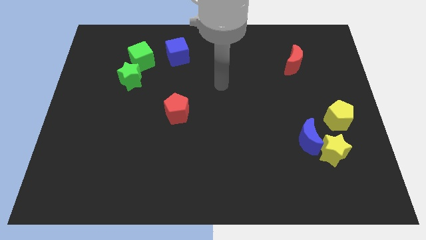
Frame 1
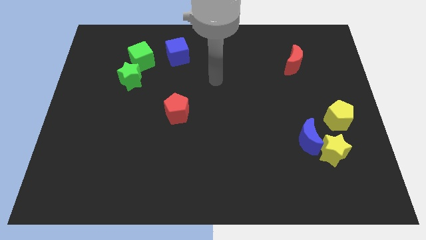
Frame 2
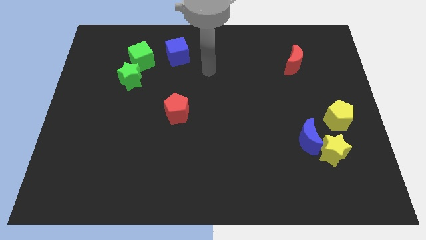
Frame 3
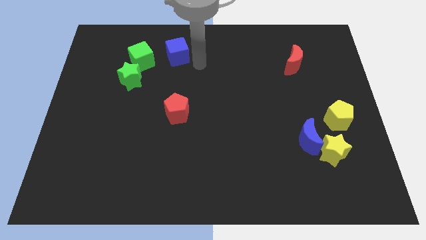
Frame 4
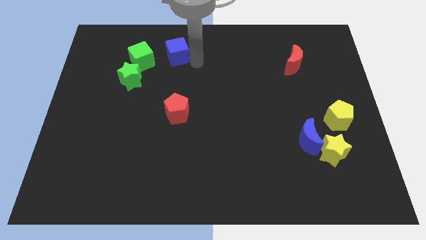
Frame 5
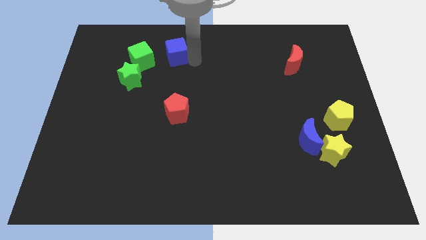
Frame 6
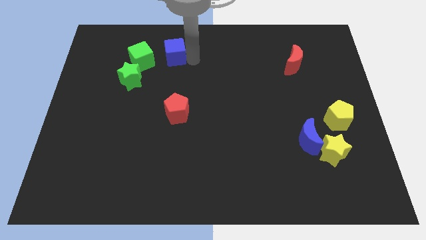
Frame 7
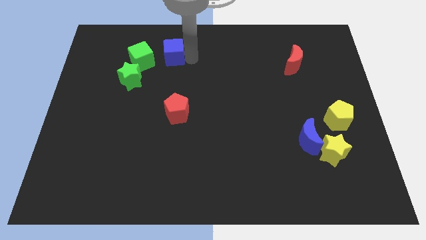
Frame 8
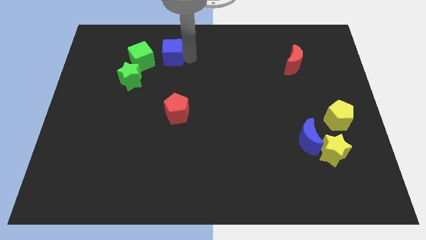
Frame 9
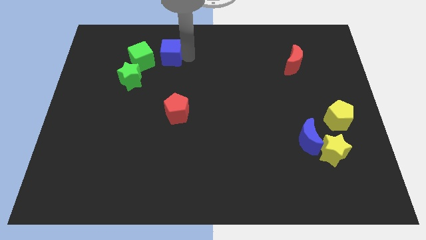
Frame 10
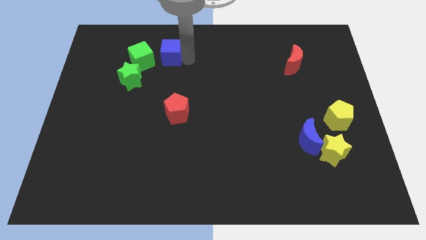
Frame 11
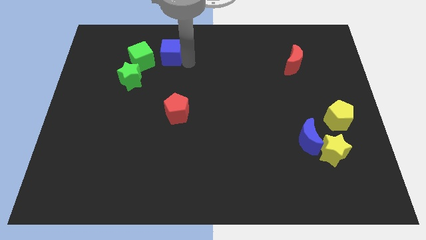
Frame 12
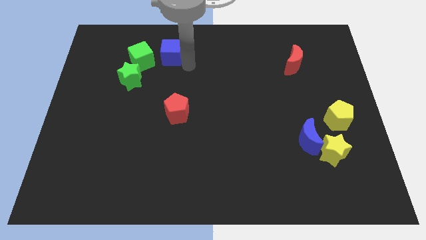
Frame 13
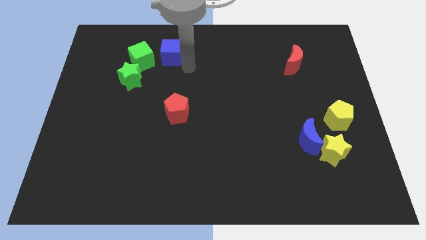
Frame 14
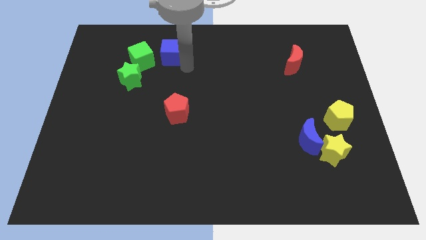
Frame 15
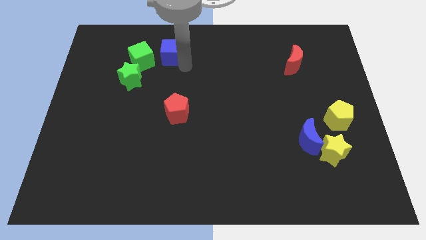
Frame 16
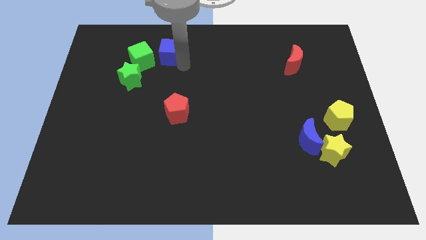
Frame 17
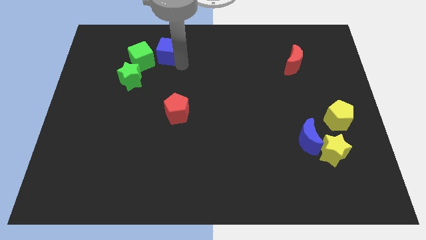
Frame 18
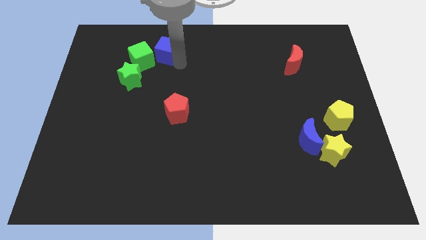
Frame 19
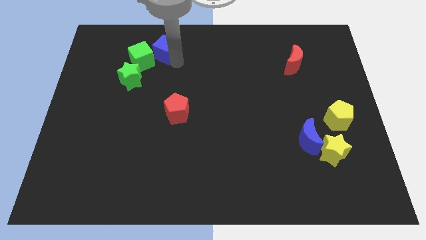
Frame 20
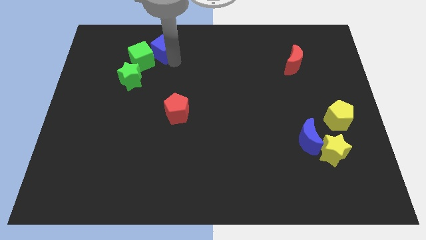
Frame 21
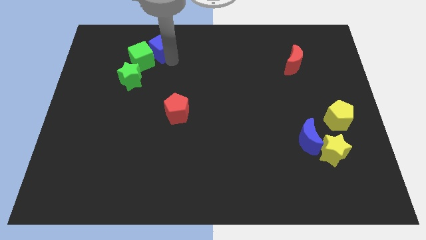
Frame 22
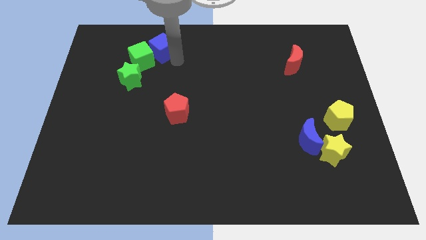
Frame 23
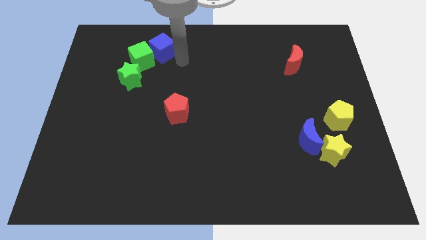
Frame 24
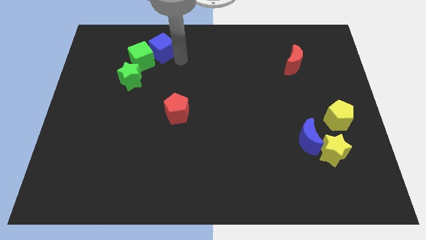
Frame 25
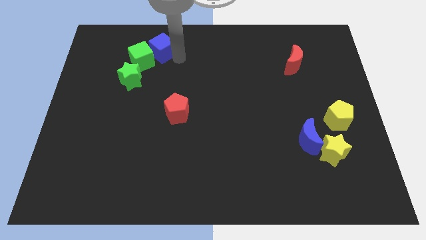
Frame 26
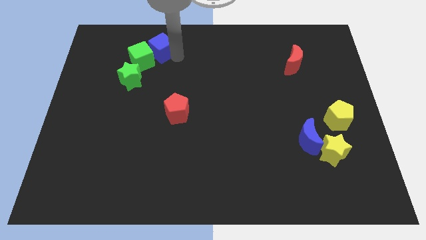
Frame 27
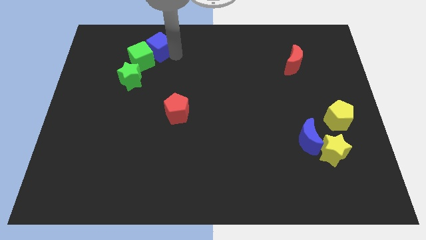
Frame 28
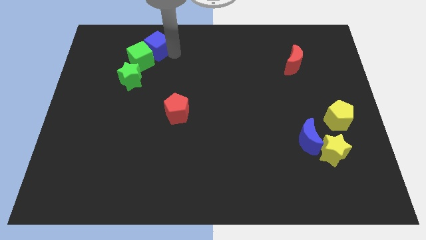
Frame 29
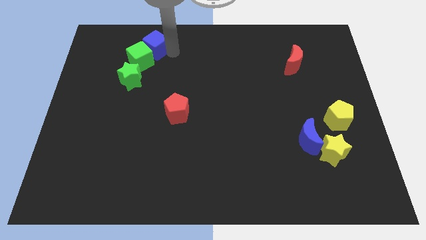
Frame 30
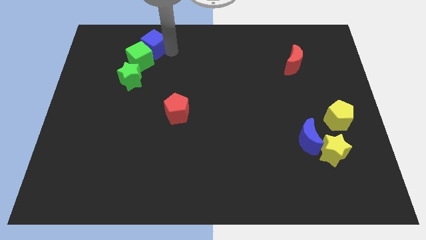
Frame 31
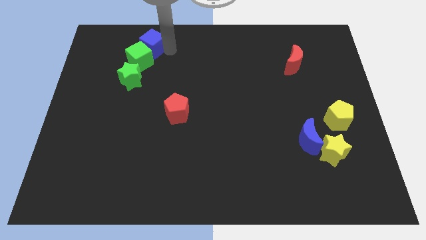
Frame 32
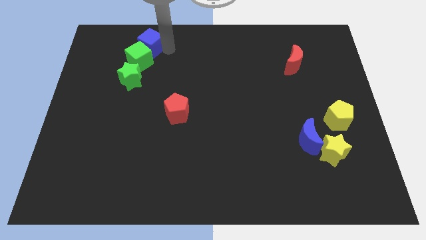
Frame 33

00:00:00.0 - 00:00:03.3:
move the blue cube a little left

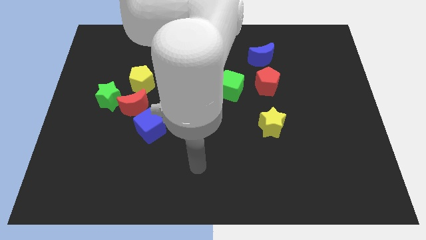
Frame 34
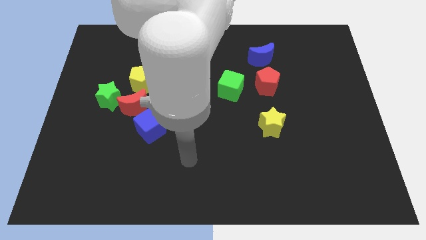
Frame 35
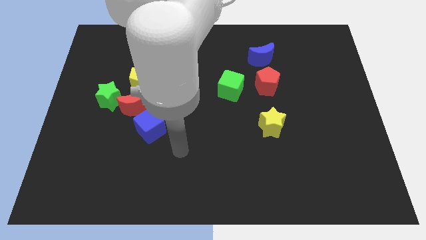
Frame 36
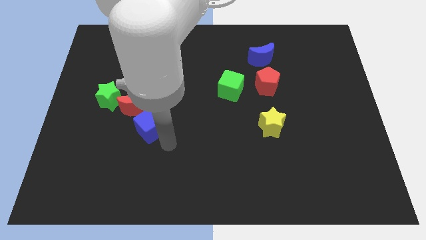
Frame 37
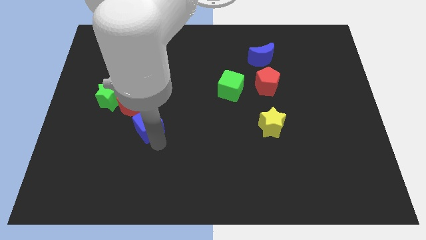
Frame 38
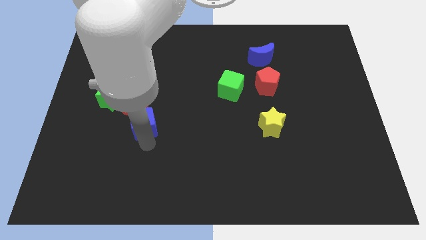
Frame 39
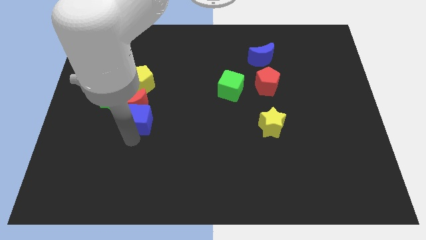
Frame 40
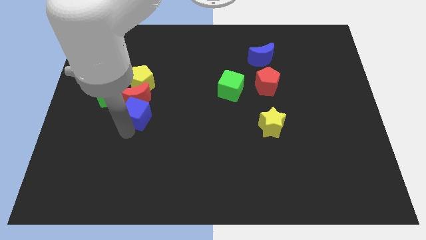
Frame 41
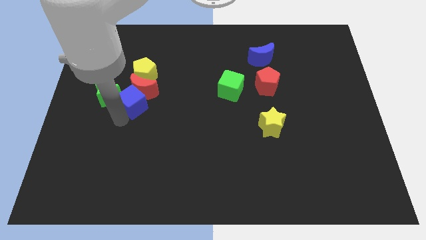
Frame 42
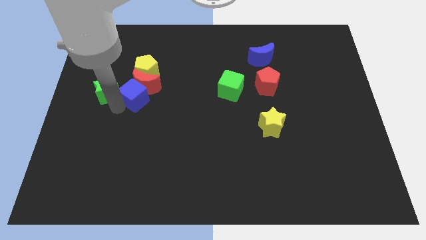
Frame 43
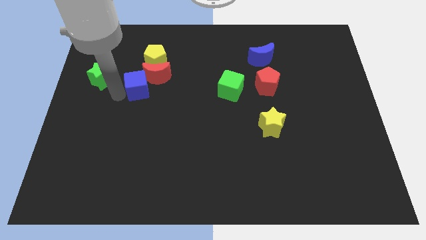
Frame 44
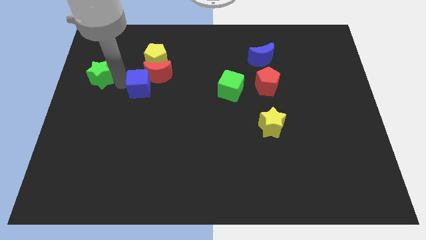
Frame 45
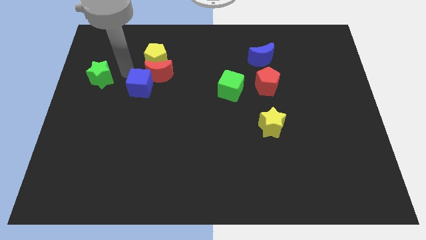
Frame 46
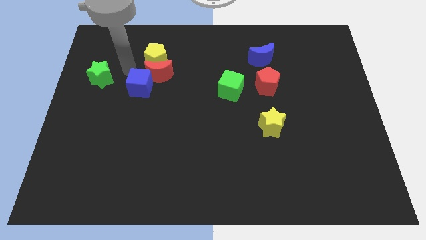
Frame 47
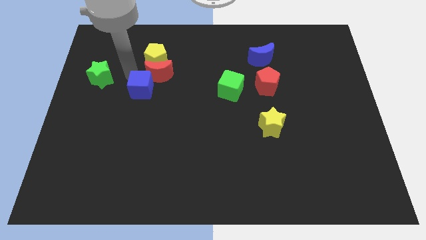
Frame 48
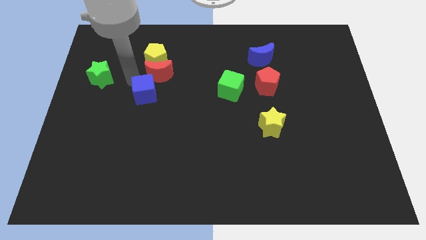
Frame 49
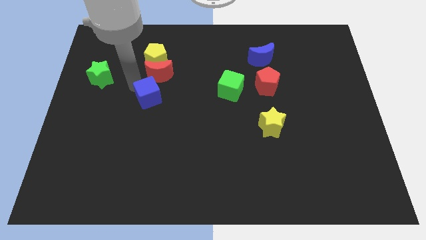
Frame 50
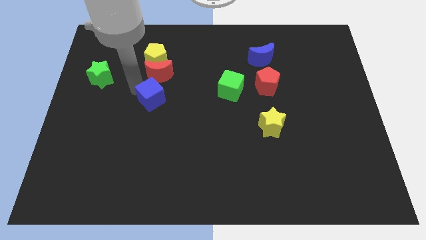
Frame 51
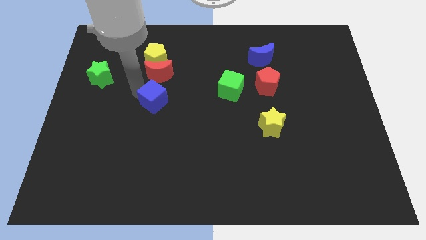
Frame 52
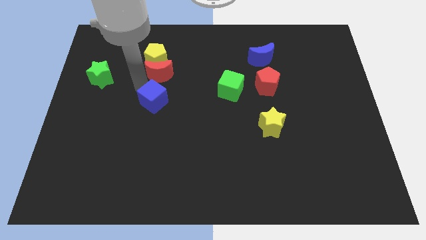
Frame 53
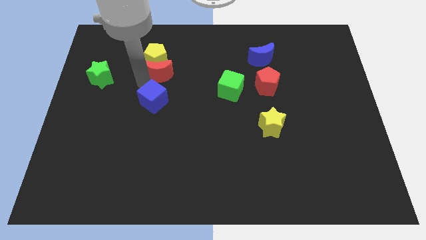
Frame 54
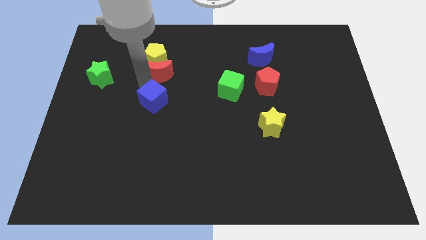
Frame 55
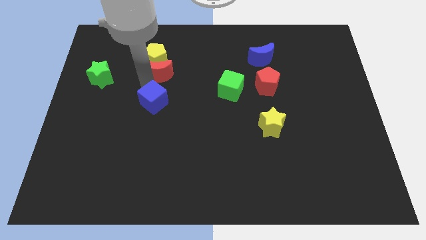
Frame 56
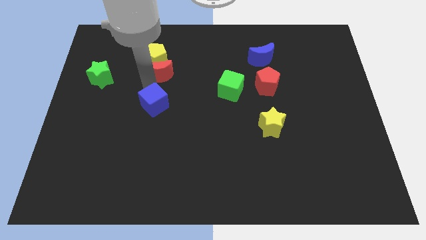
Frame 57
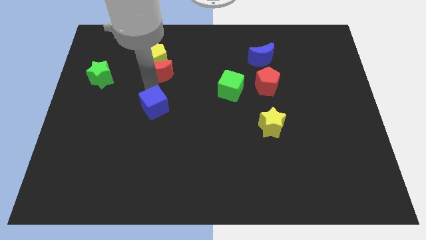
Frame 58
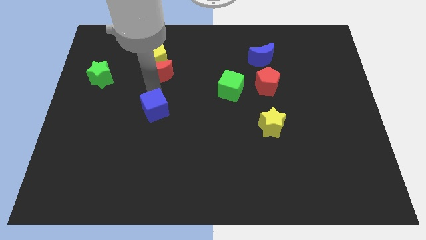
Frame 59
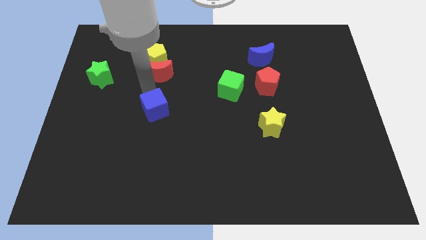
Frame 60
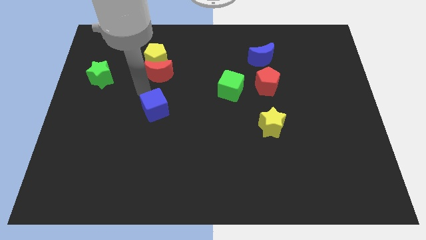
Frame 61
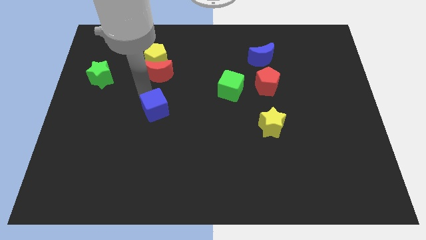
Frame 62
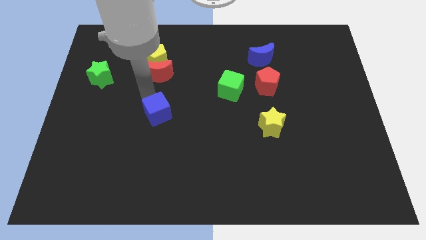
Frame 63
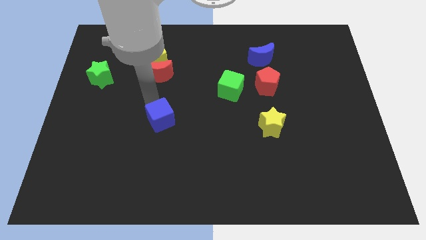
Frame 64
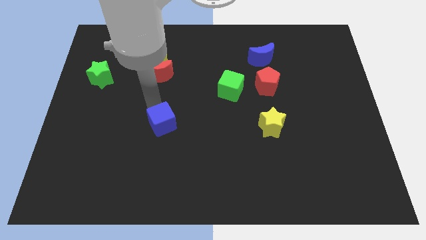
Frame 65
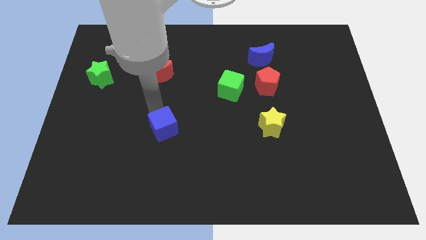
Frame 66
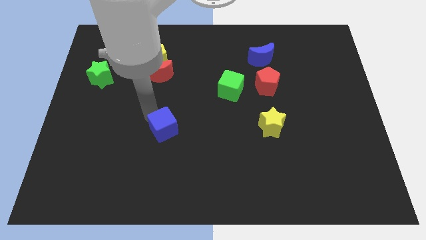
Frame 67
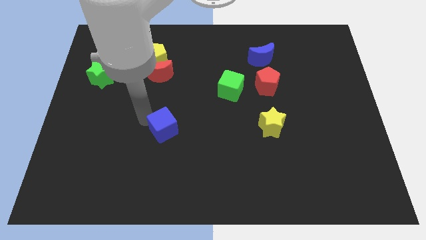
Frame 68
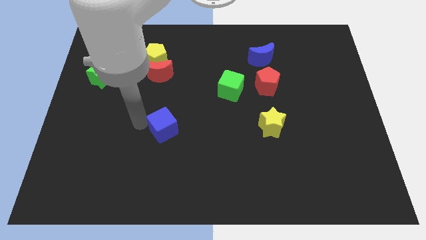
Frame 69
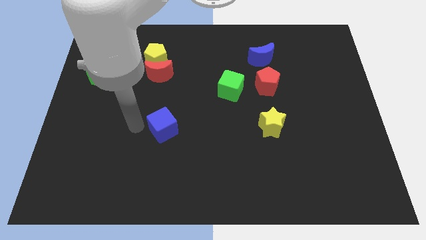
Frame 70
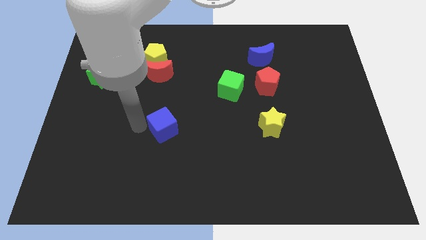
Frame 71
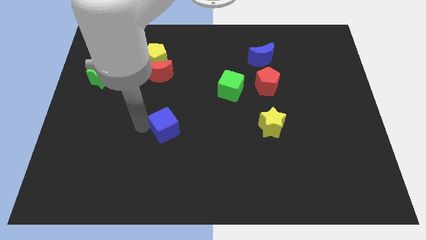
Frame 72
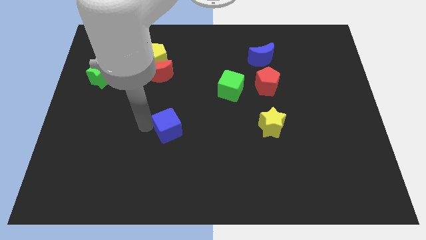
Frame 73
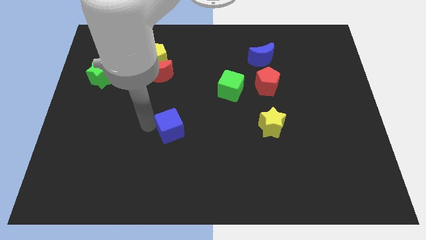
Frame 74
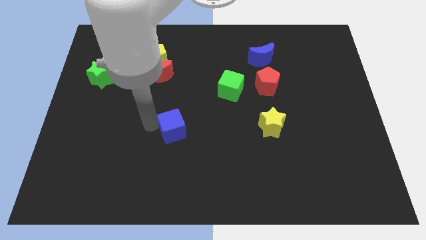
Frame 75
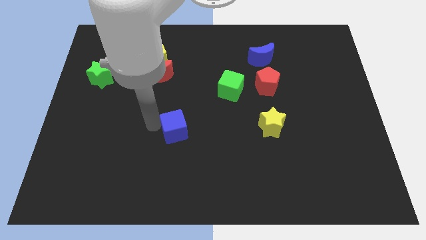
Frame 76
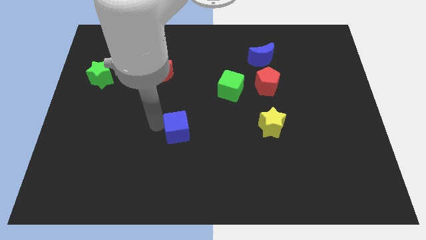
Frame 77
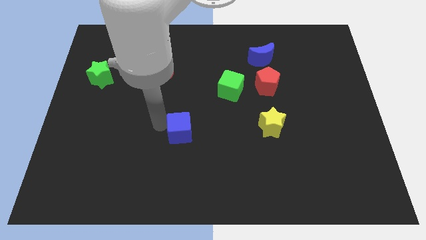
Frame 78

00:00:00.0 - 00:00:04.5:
slightly slide the blue cube right

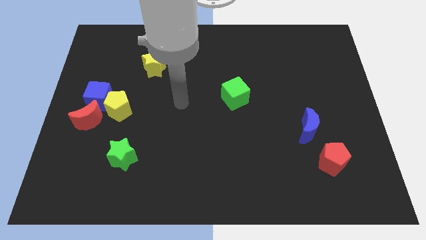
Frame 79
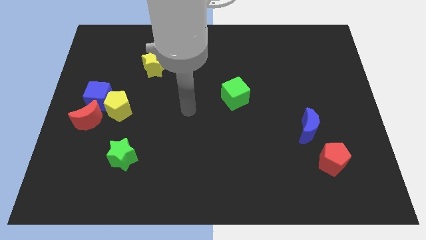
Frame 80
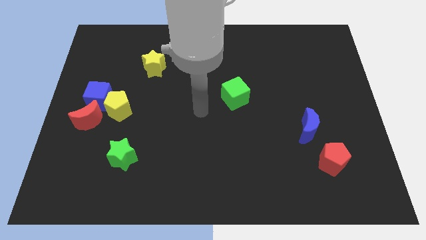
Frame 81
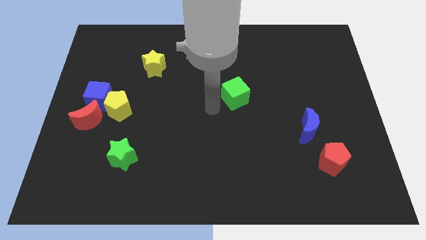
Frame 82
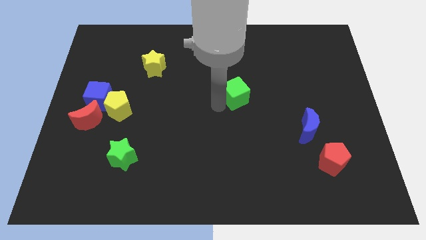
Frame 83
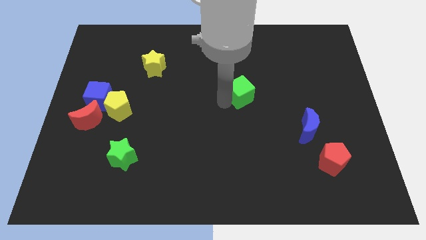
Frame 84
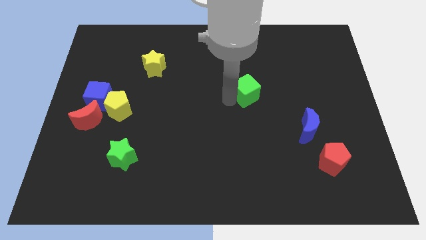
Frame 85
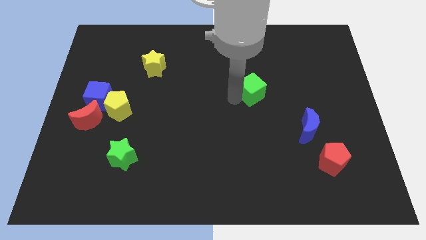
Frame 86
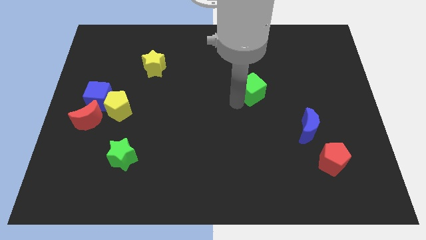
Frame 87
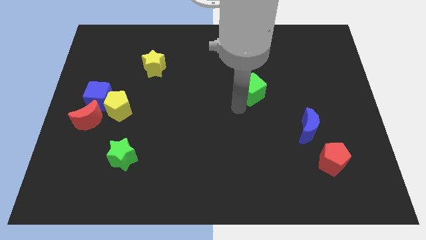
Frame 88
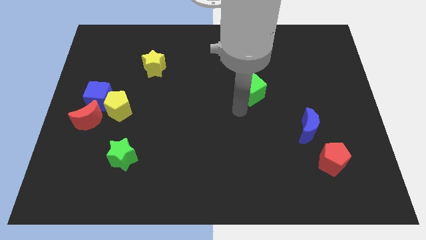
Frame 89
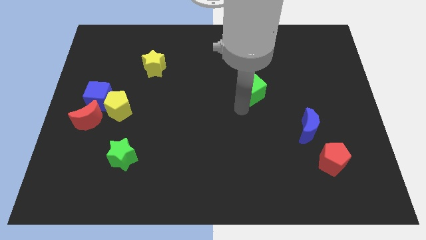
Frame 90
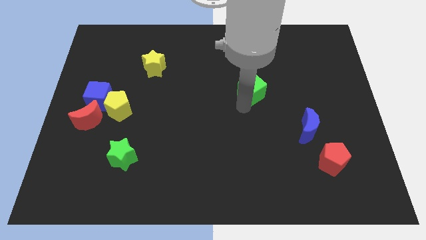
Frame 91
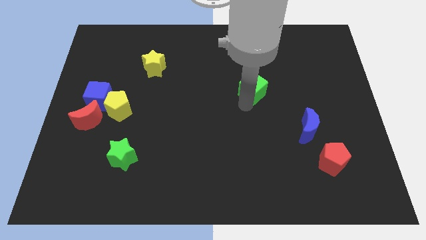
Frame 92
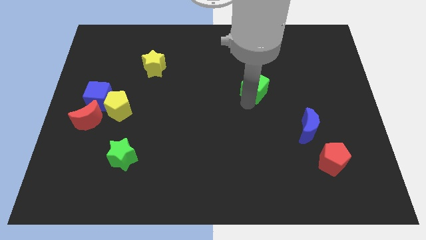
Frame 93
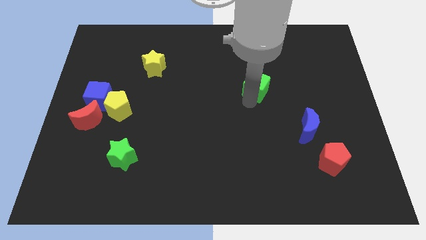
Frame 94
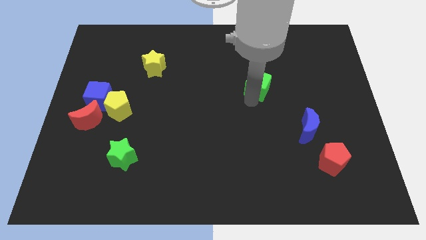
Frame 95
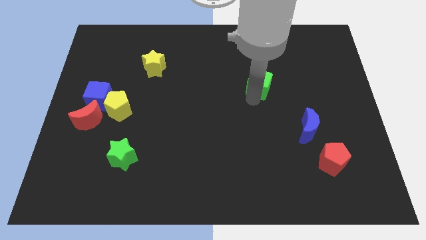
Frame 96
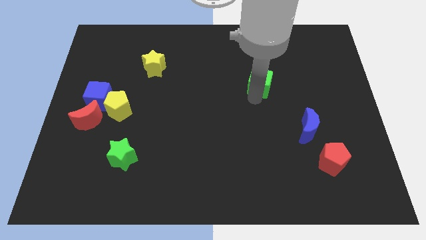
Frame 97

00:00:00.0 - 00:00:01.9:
move the green cube upwards and to the right a bit
